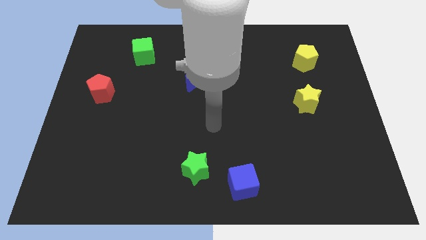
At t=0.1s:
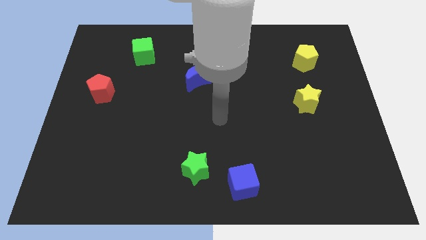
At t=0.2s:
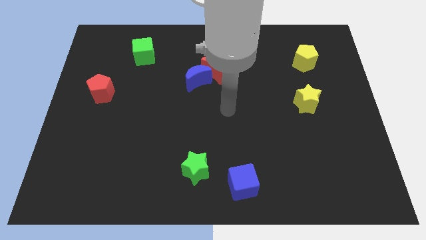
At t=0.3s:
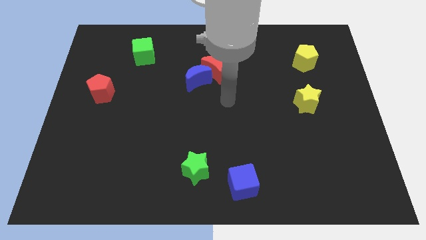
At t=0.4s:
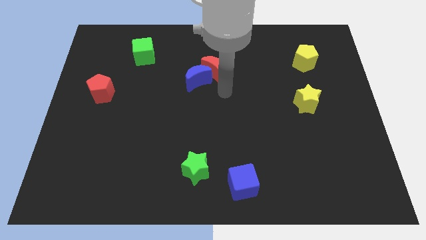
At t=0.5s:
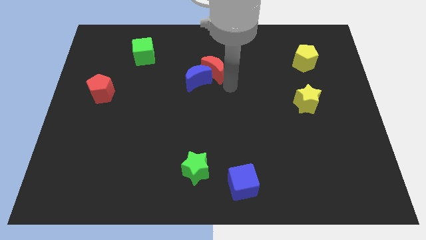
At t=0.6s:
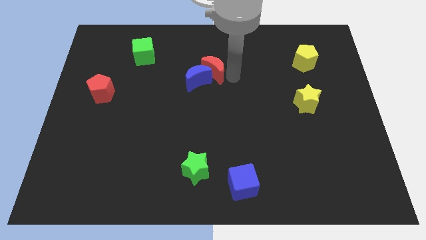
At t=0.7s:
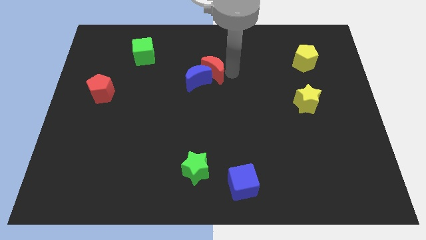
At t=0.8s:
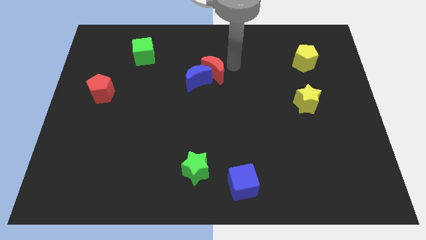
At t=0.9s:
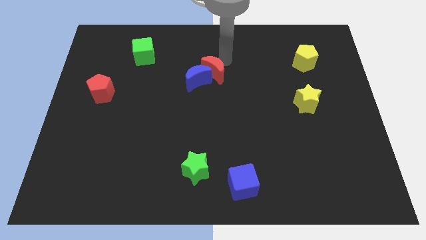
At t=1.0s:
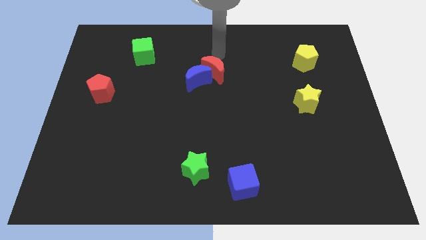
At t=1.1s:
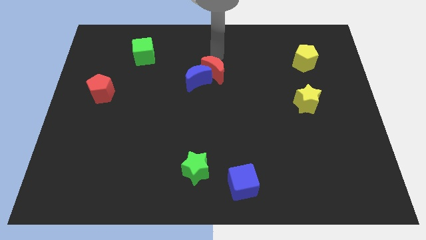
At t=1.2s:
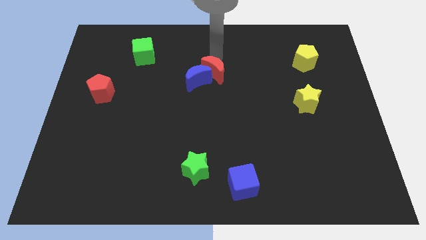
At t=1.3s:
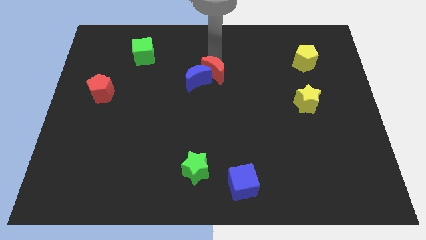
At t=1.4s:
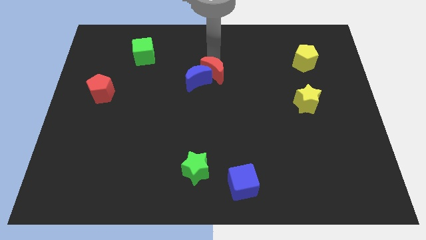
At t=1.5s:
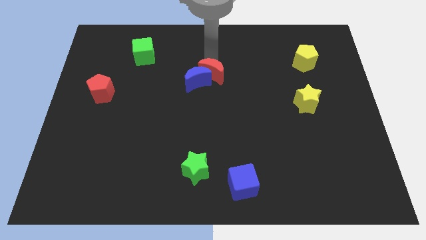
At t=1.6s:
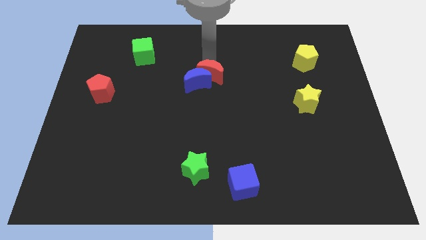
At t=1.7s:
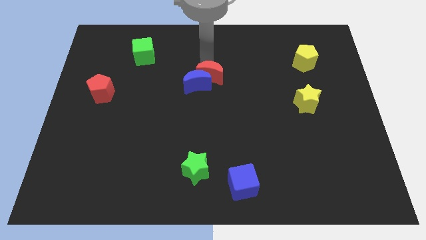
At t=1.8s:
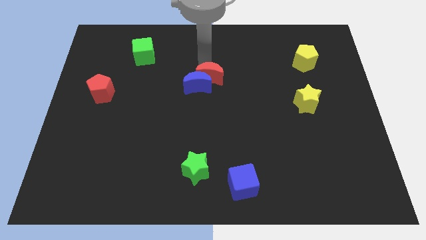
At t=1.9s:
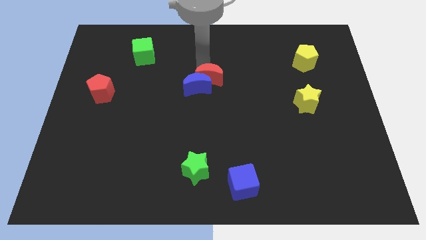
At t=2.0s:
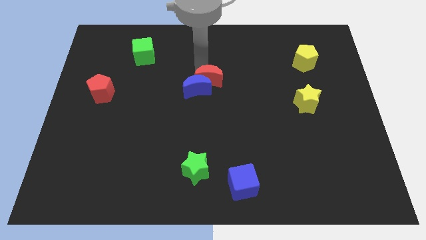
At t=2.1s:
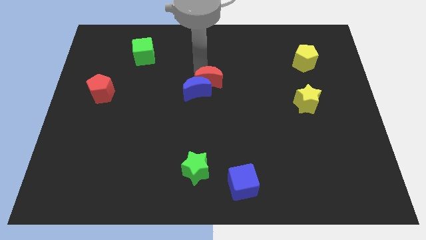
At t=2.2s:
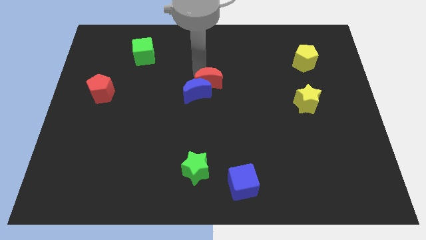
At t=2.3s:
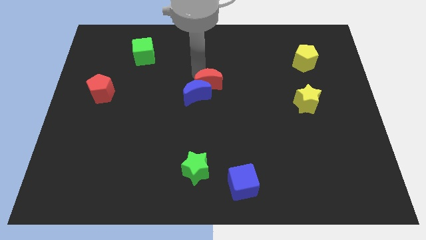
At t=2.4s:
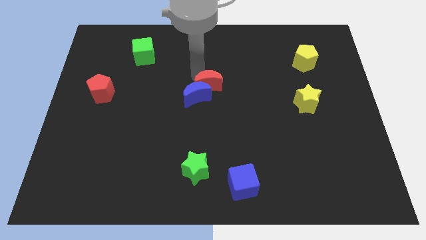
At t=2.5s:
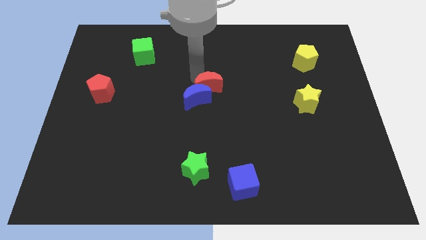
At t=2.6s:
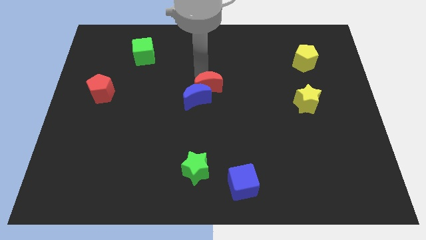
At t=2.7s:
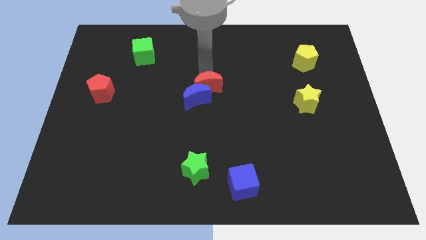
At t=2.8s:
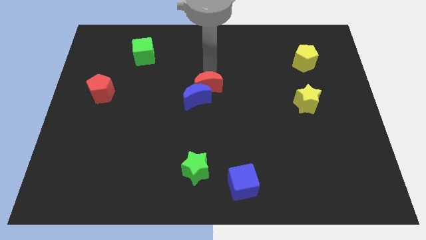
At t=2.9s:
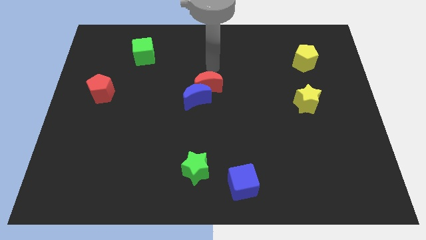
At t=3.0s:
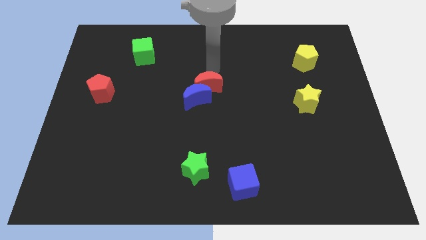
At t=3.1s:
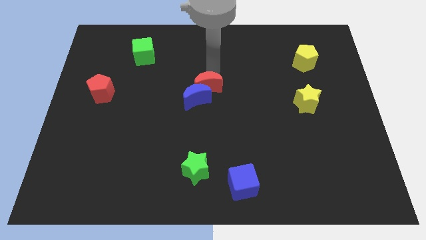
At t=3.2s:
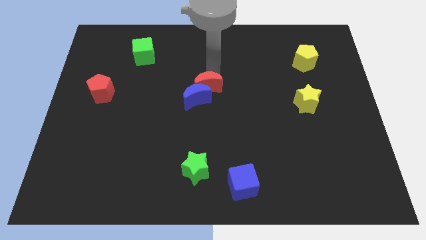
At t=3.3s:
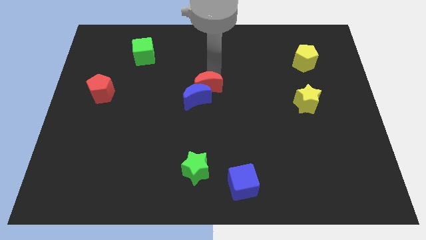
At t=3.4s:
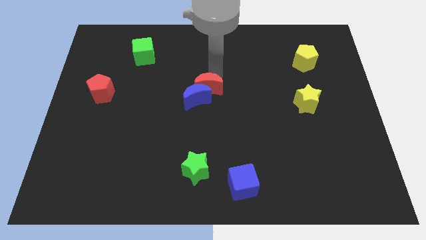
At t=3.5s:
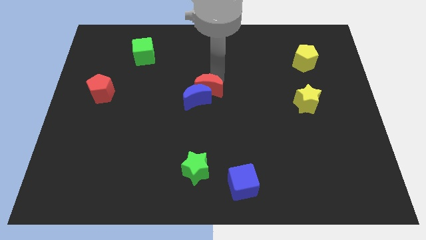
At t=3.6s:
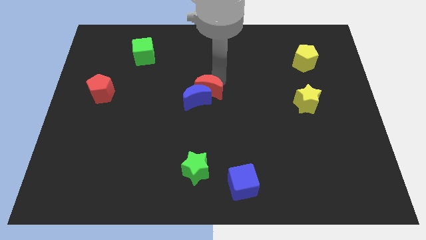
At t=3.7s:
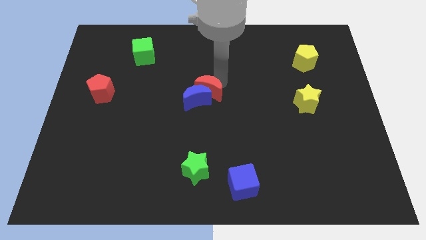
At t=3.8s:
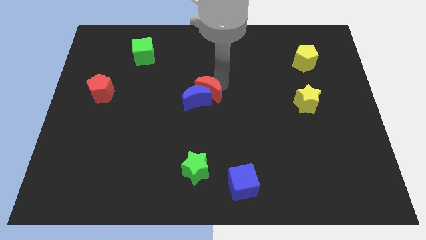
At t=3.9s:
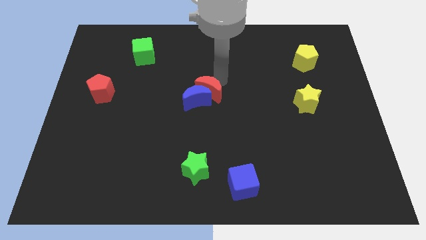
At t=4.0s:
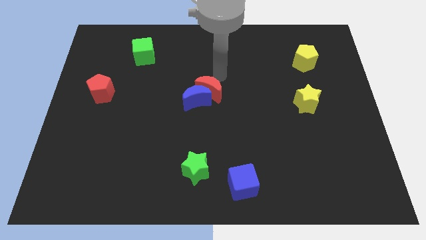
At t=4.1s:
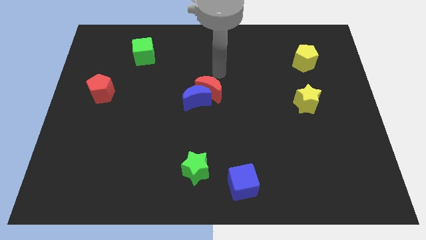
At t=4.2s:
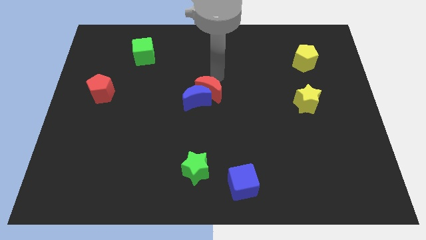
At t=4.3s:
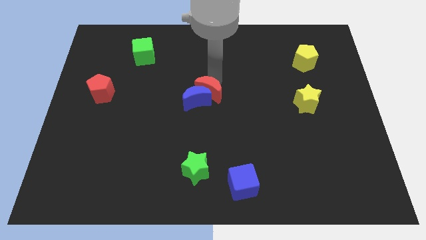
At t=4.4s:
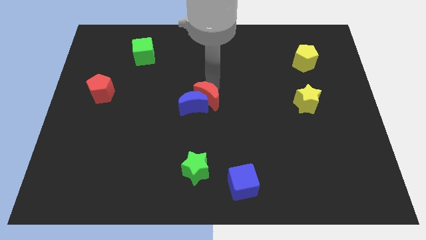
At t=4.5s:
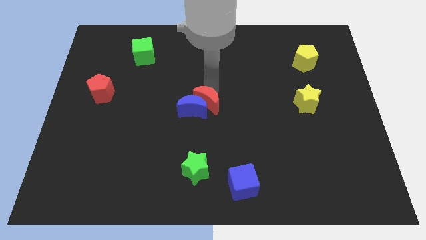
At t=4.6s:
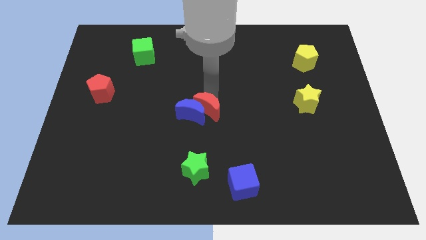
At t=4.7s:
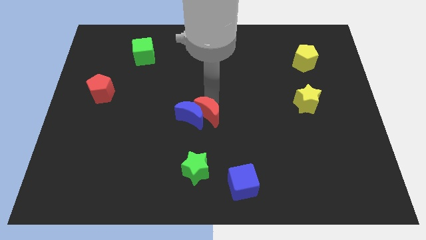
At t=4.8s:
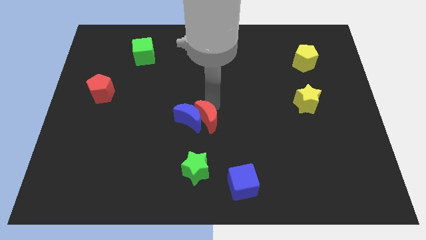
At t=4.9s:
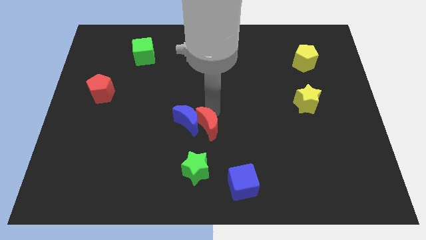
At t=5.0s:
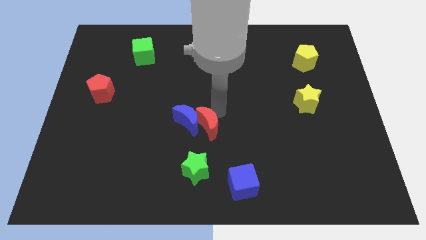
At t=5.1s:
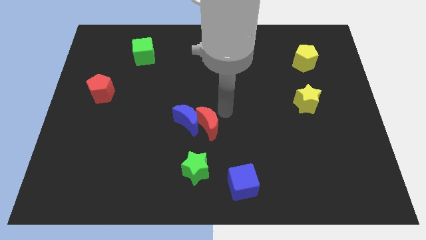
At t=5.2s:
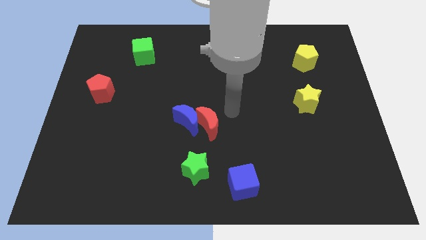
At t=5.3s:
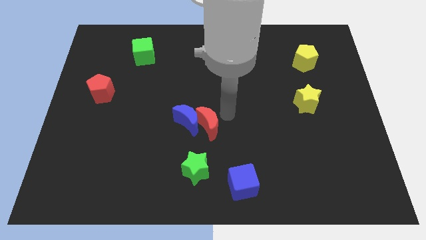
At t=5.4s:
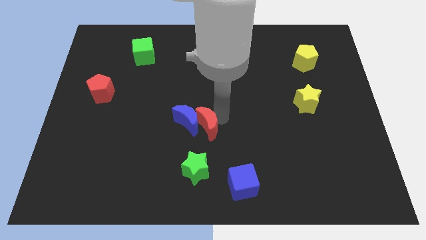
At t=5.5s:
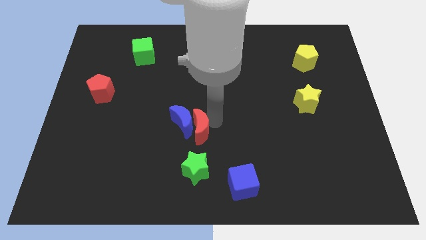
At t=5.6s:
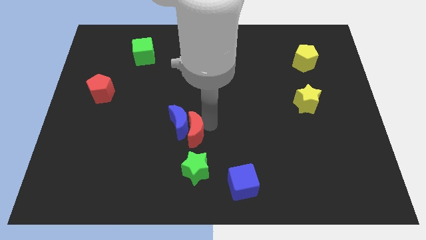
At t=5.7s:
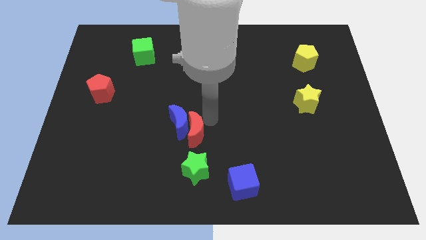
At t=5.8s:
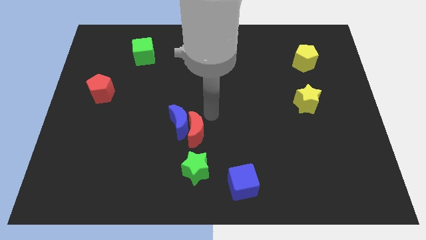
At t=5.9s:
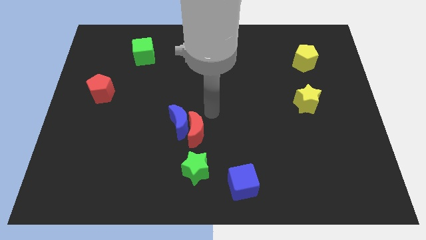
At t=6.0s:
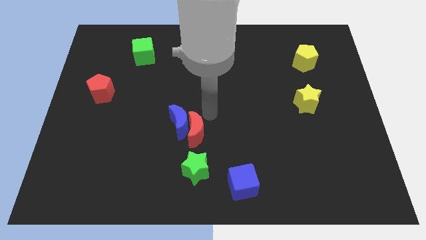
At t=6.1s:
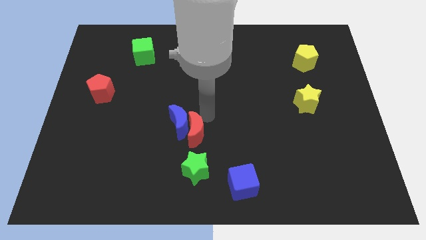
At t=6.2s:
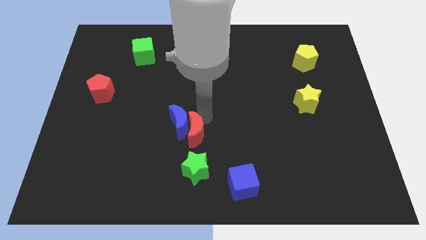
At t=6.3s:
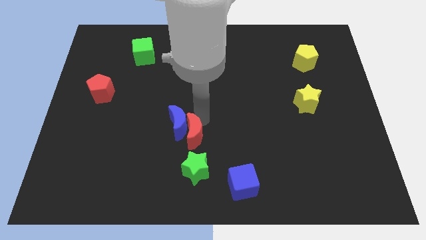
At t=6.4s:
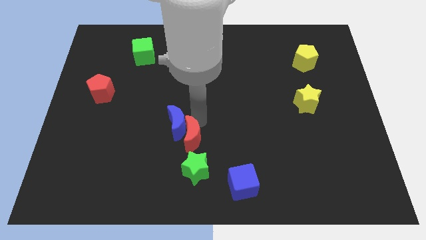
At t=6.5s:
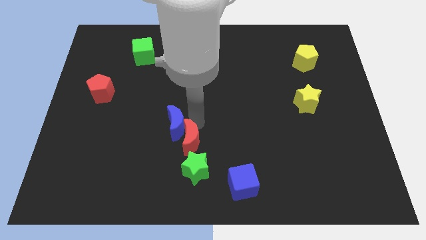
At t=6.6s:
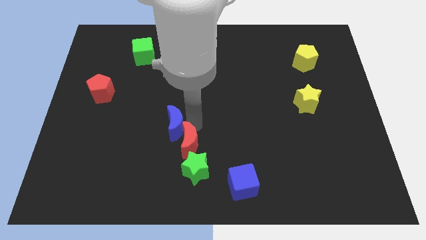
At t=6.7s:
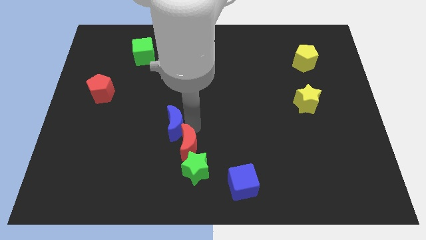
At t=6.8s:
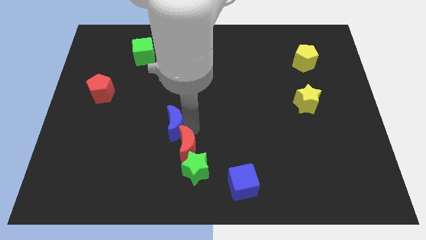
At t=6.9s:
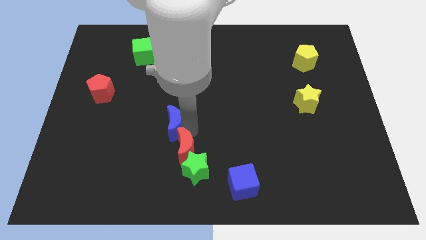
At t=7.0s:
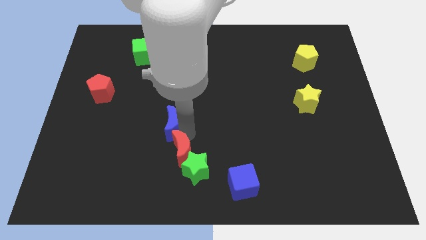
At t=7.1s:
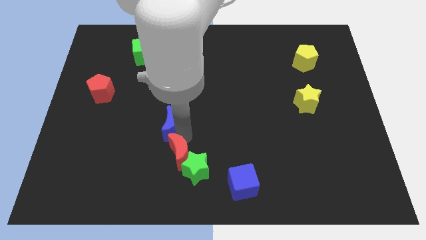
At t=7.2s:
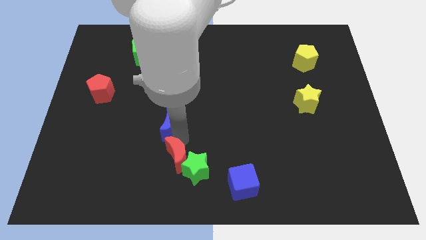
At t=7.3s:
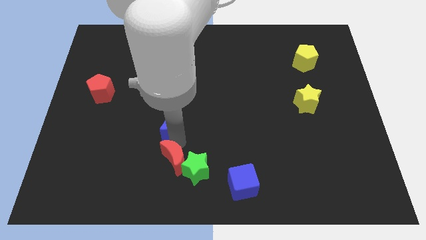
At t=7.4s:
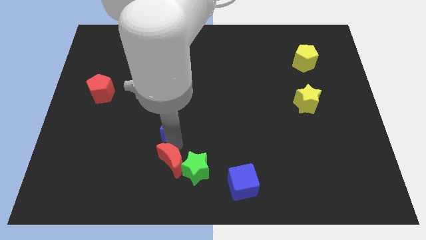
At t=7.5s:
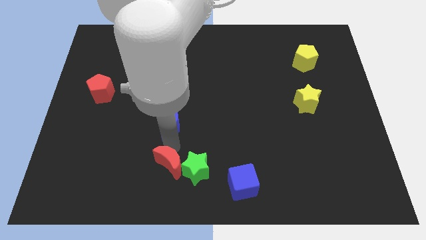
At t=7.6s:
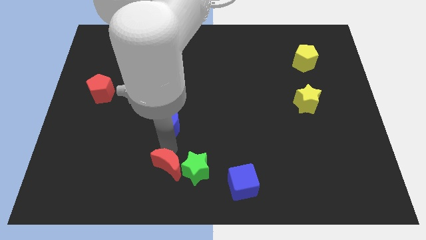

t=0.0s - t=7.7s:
slide the red moon to the bottom side
